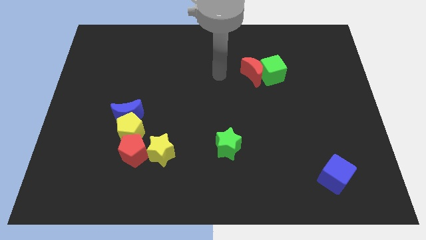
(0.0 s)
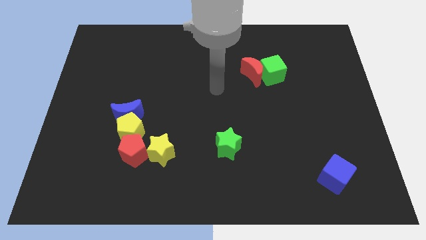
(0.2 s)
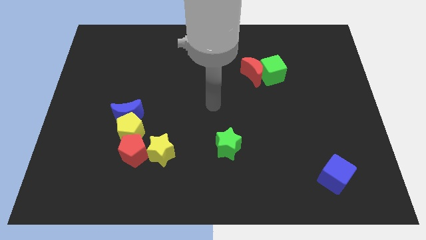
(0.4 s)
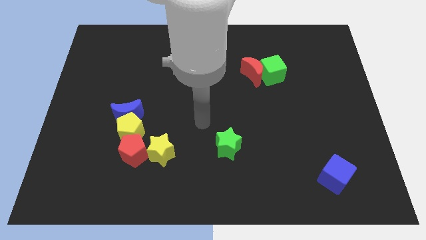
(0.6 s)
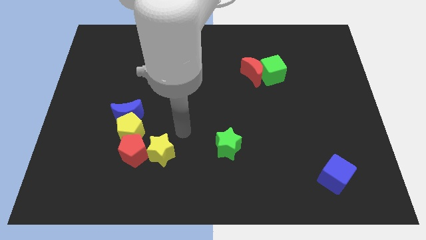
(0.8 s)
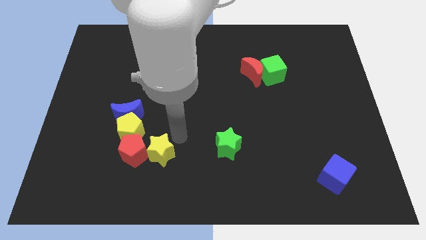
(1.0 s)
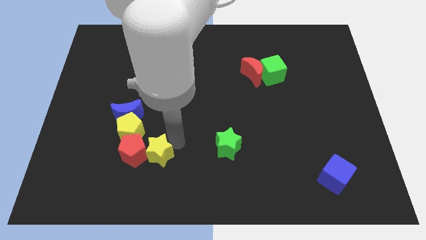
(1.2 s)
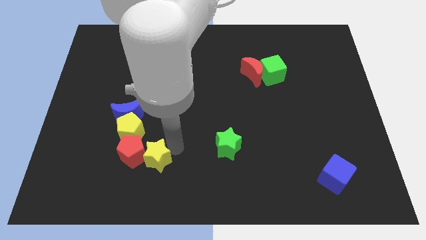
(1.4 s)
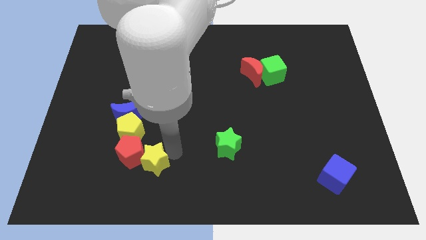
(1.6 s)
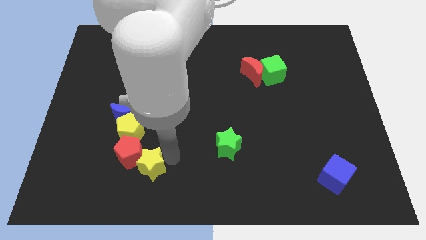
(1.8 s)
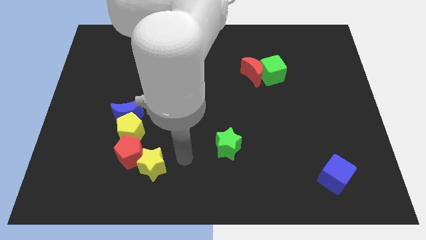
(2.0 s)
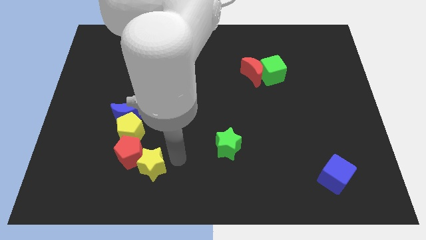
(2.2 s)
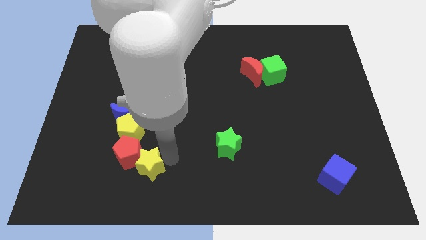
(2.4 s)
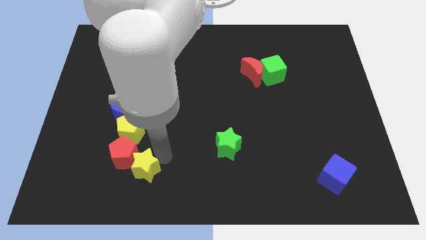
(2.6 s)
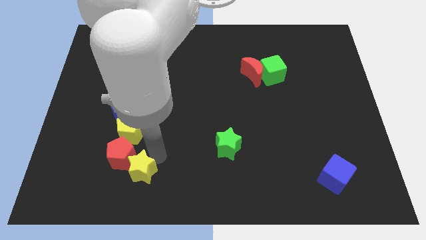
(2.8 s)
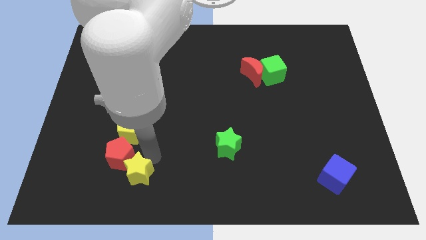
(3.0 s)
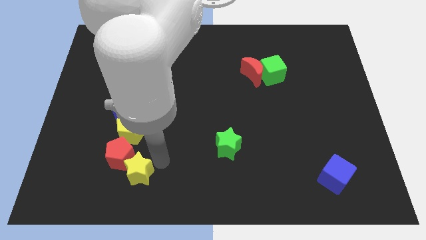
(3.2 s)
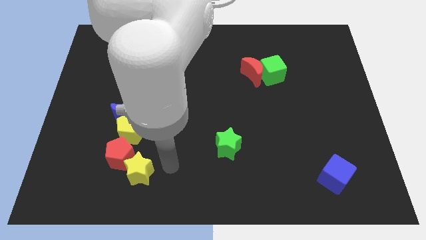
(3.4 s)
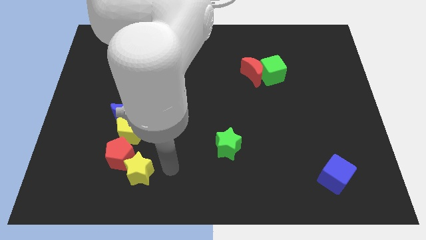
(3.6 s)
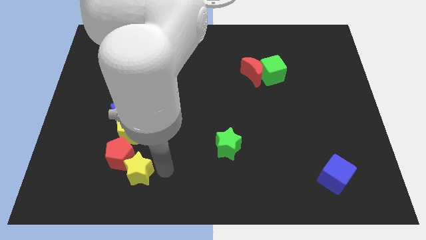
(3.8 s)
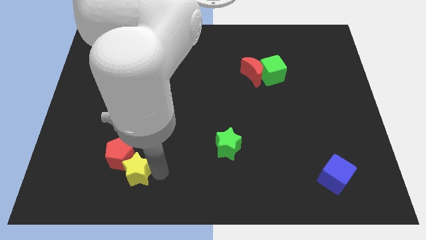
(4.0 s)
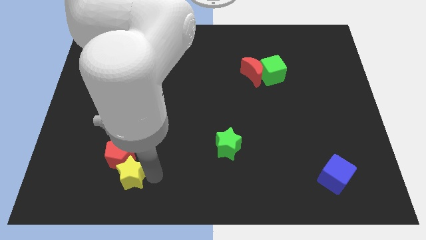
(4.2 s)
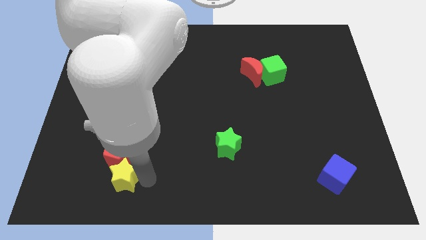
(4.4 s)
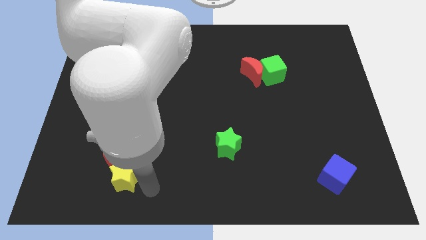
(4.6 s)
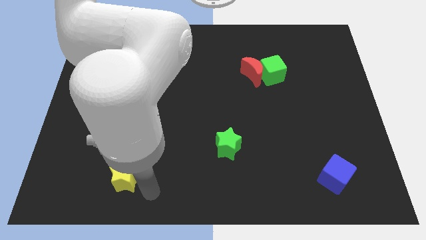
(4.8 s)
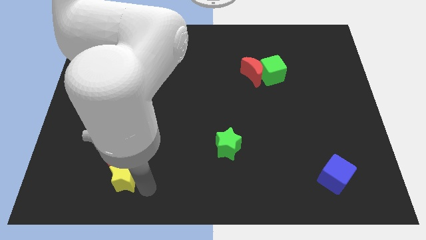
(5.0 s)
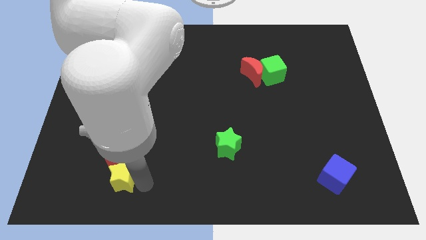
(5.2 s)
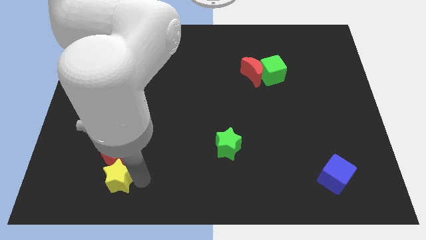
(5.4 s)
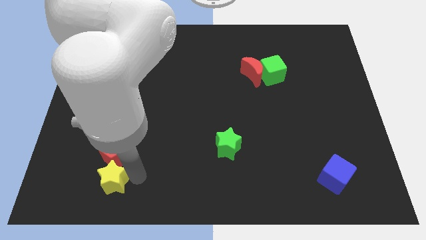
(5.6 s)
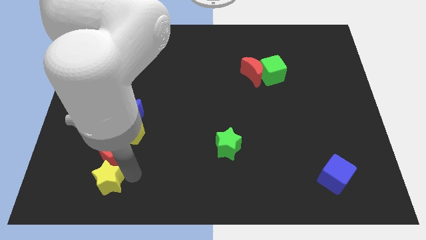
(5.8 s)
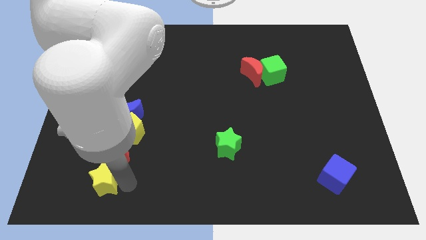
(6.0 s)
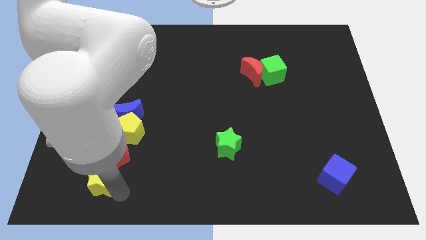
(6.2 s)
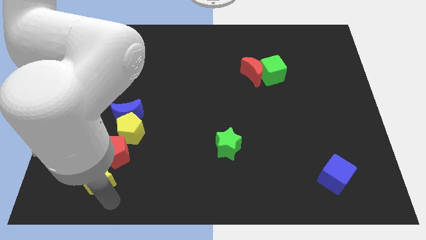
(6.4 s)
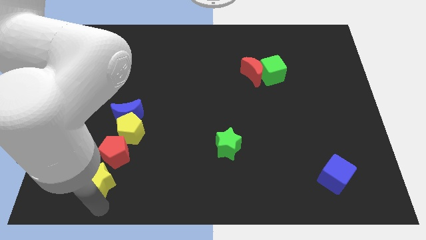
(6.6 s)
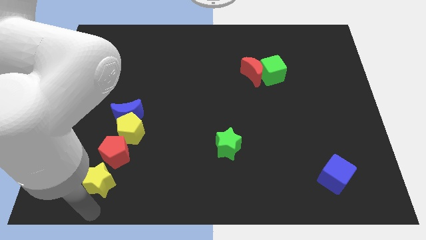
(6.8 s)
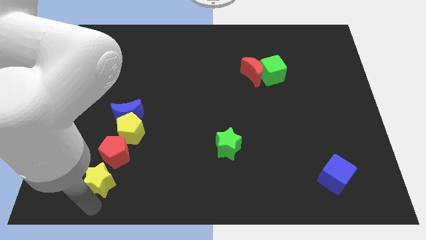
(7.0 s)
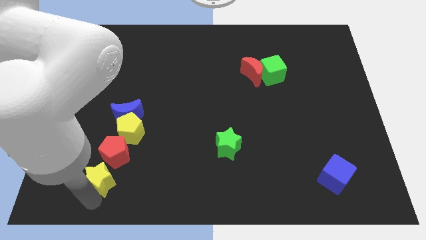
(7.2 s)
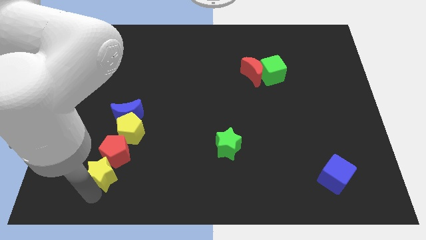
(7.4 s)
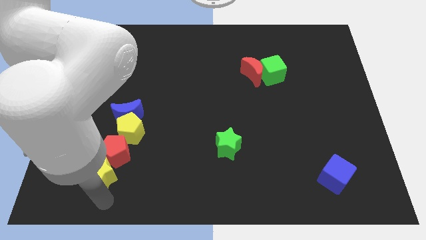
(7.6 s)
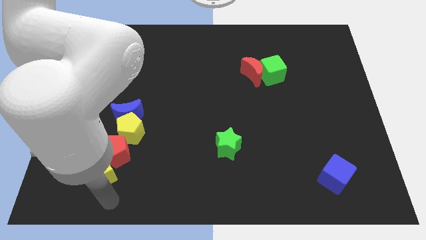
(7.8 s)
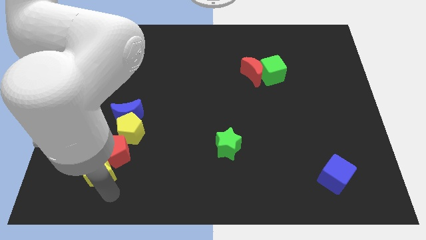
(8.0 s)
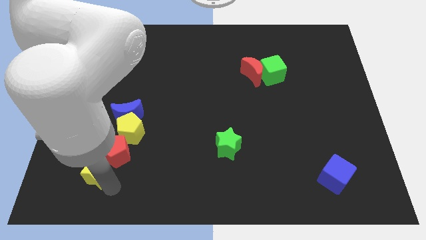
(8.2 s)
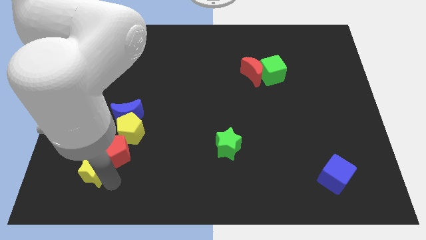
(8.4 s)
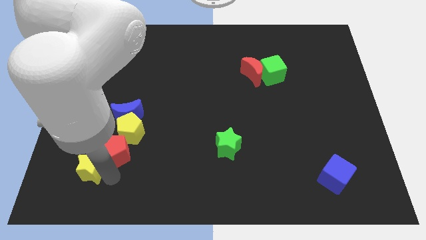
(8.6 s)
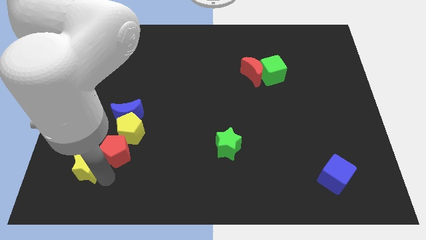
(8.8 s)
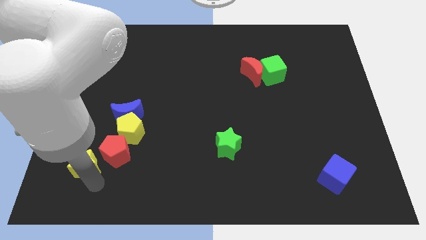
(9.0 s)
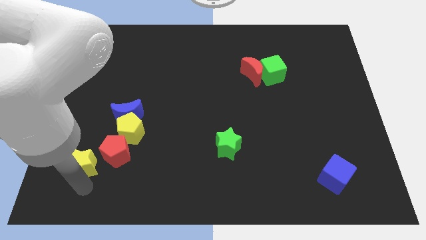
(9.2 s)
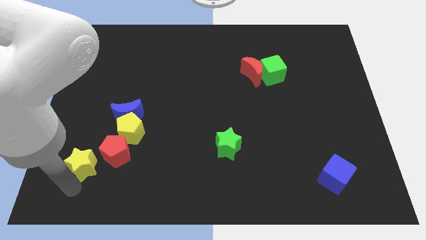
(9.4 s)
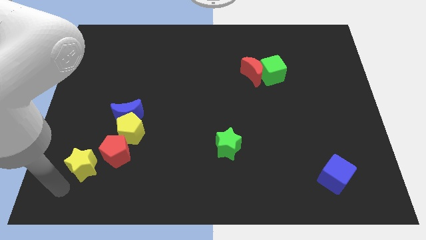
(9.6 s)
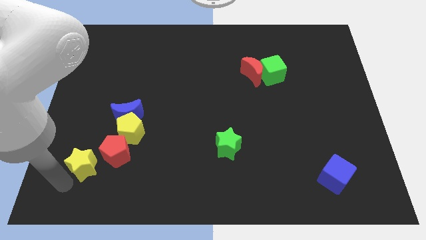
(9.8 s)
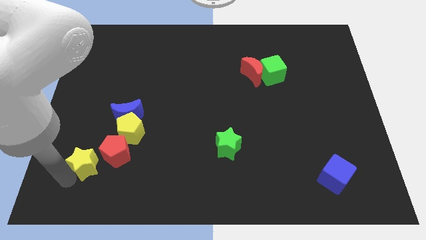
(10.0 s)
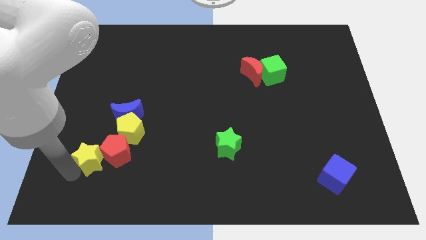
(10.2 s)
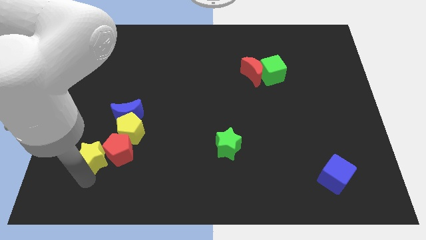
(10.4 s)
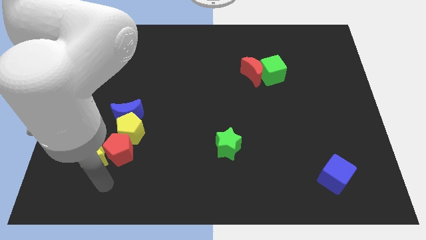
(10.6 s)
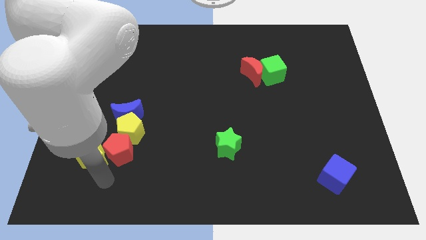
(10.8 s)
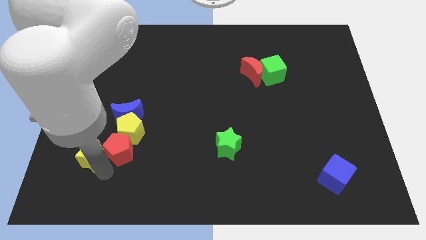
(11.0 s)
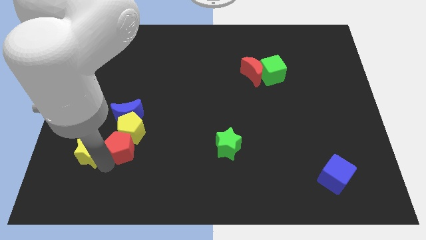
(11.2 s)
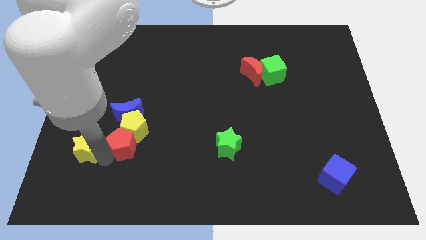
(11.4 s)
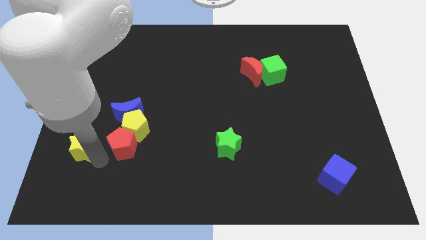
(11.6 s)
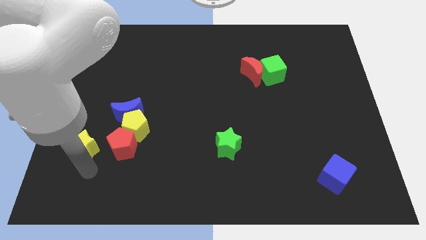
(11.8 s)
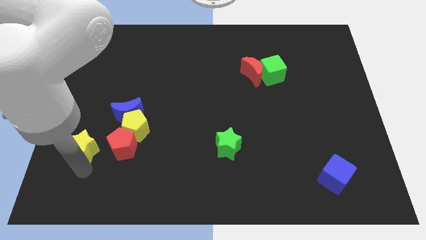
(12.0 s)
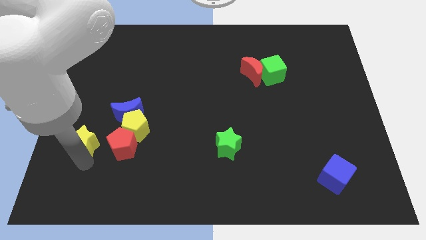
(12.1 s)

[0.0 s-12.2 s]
slide the yellow star just left of the yellow pentagon

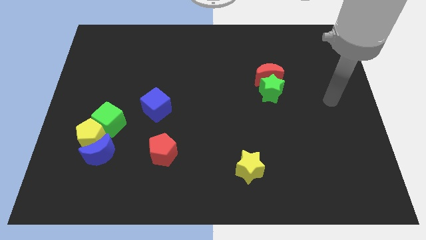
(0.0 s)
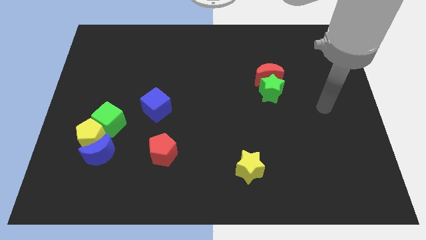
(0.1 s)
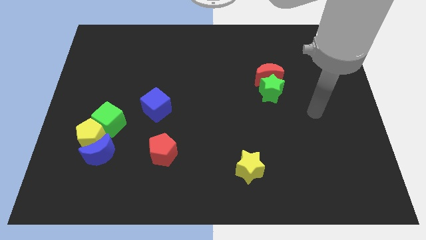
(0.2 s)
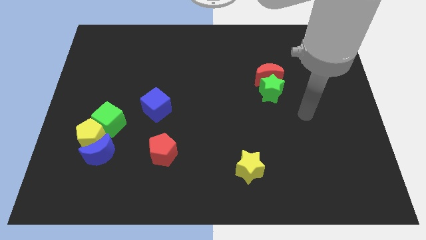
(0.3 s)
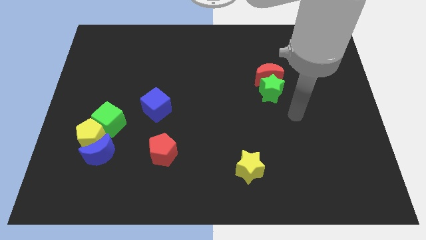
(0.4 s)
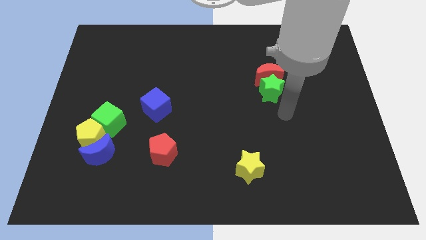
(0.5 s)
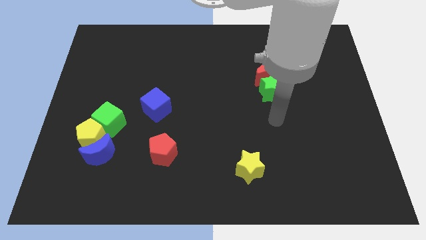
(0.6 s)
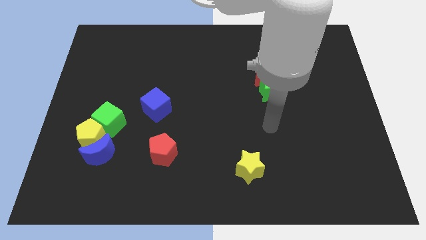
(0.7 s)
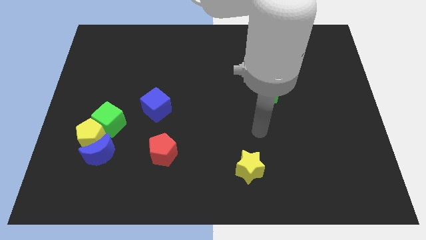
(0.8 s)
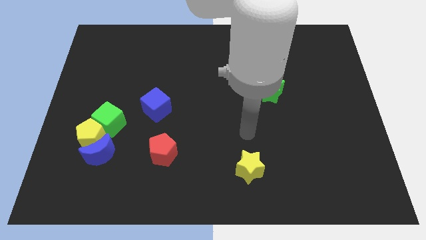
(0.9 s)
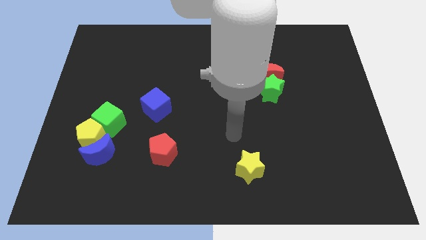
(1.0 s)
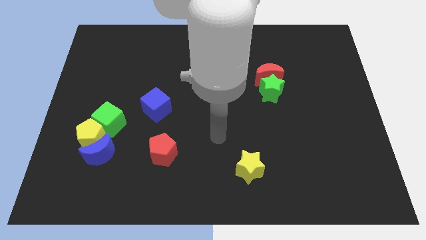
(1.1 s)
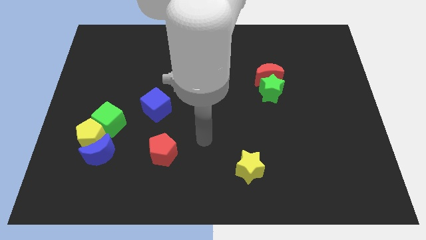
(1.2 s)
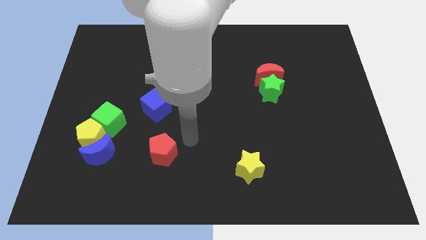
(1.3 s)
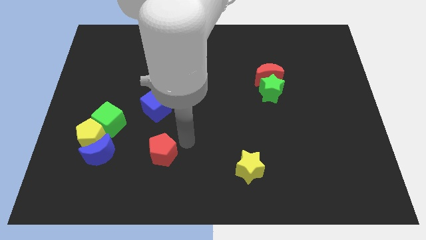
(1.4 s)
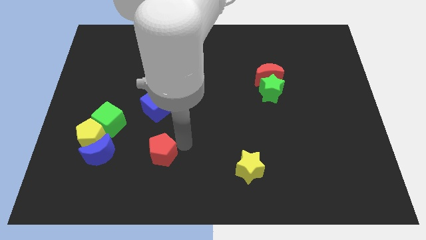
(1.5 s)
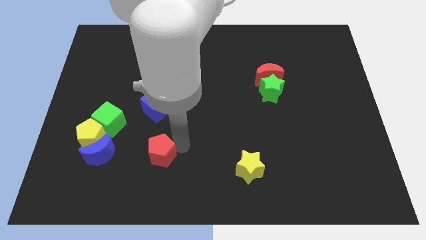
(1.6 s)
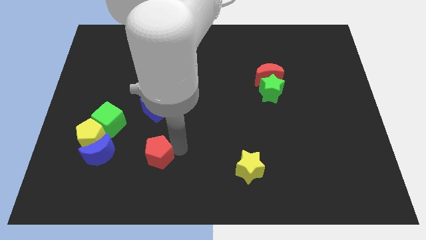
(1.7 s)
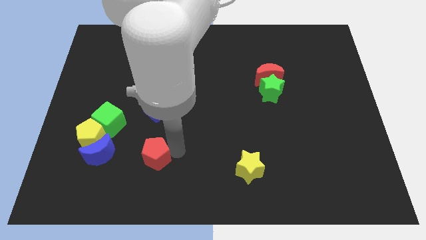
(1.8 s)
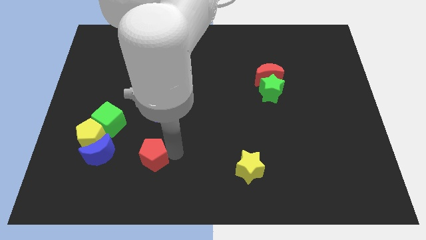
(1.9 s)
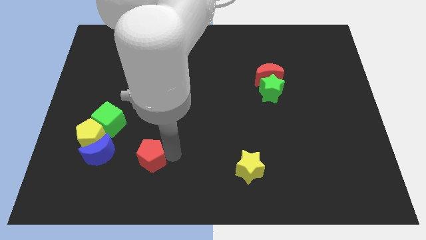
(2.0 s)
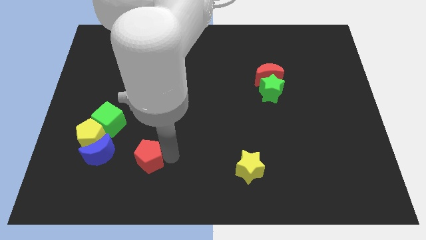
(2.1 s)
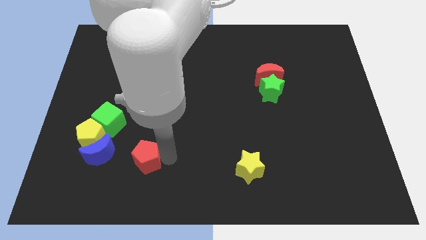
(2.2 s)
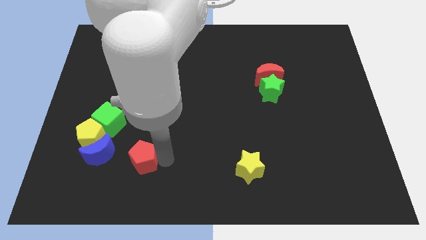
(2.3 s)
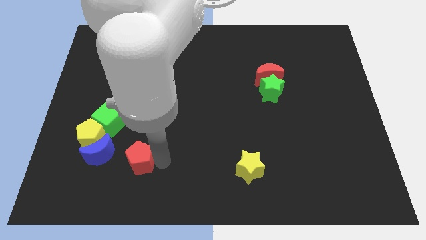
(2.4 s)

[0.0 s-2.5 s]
push the red pentagon diagonally down and to the right of the blue moon
